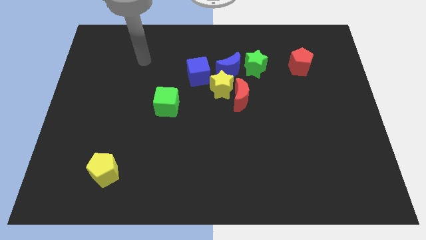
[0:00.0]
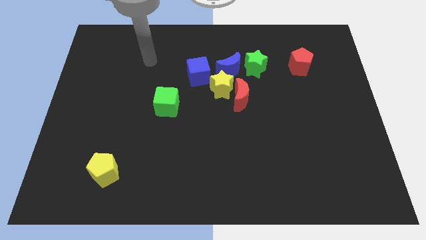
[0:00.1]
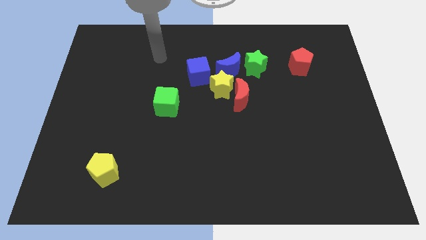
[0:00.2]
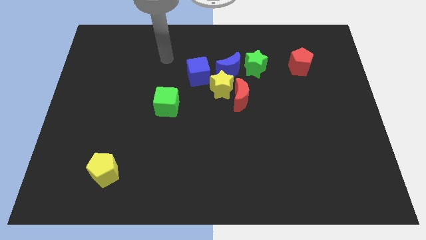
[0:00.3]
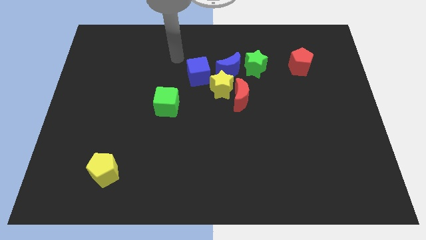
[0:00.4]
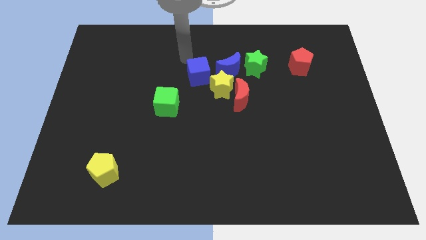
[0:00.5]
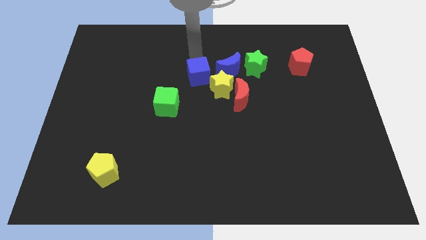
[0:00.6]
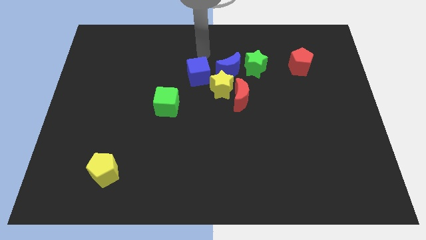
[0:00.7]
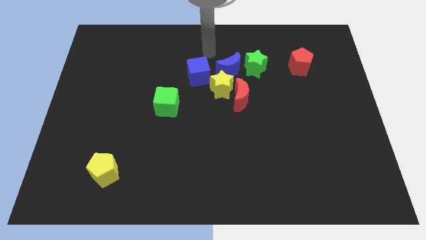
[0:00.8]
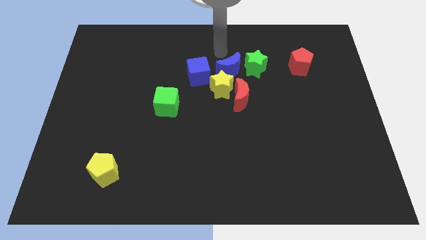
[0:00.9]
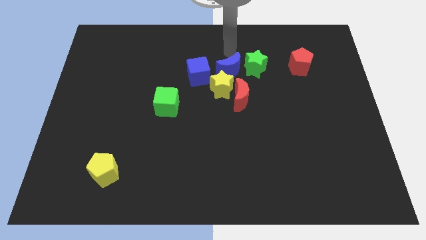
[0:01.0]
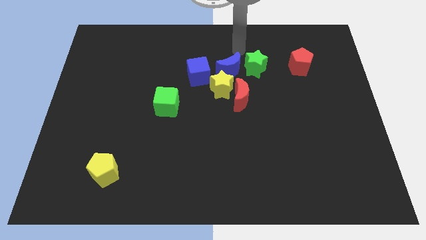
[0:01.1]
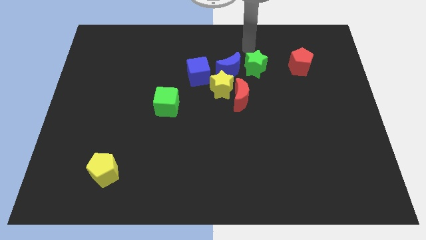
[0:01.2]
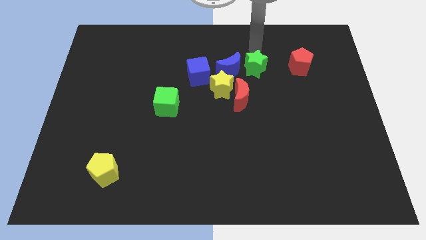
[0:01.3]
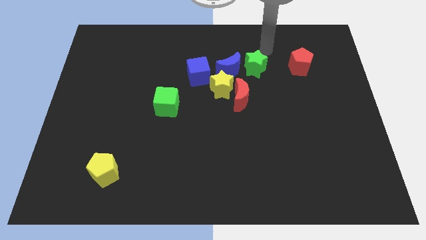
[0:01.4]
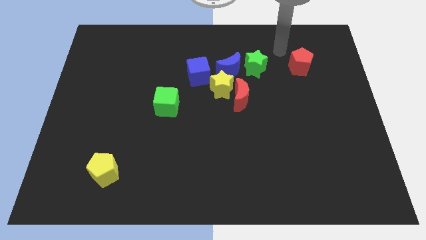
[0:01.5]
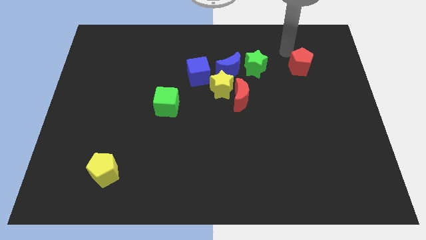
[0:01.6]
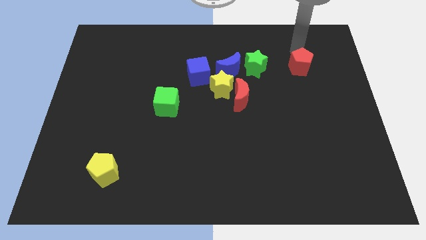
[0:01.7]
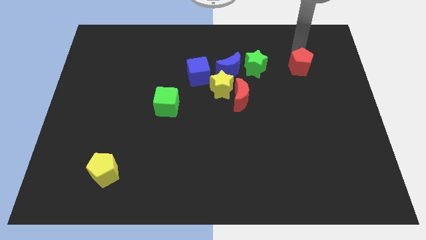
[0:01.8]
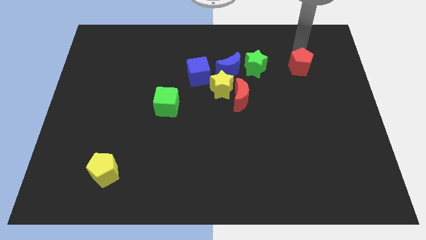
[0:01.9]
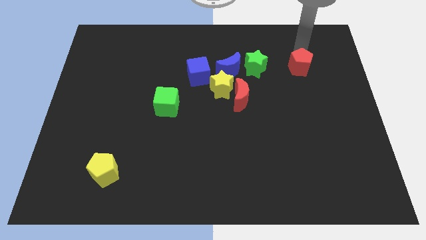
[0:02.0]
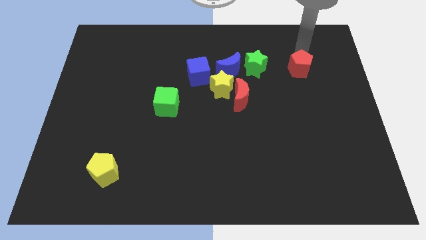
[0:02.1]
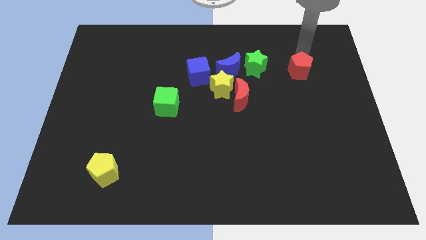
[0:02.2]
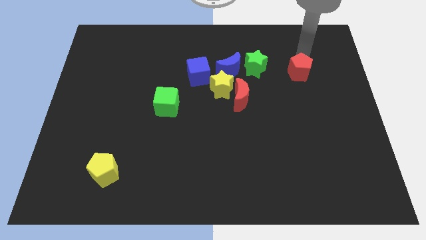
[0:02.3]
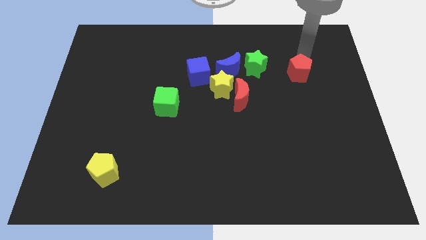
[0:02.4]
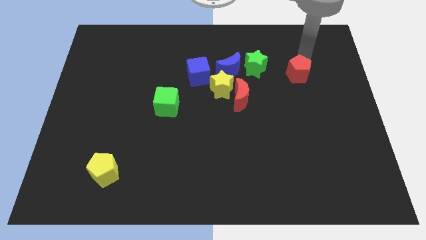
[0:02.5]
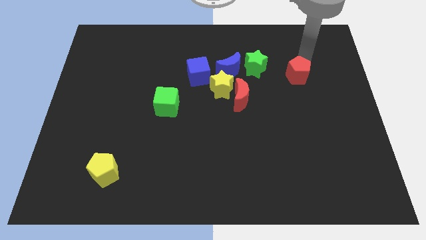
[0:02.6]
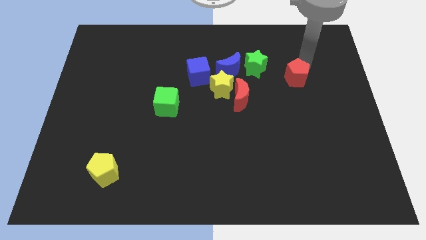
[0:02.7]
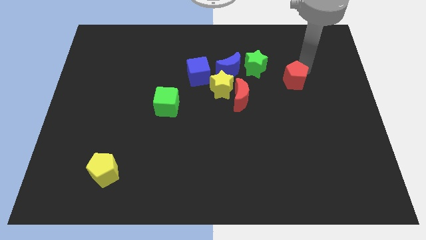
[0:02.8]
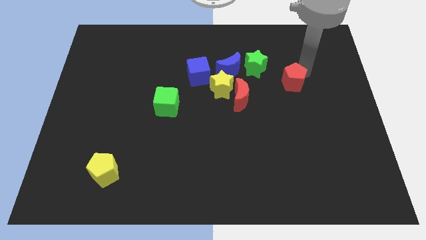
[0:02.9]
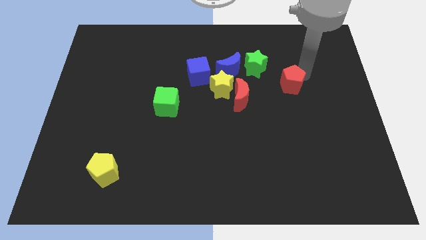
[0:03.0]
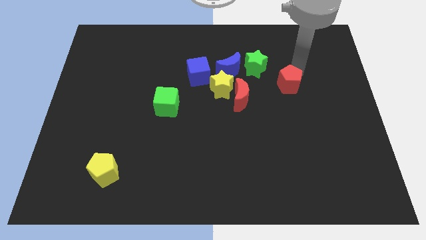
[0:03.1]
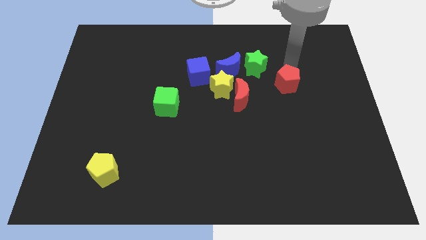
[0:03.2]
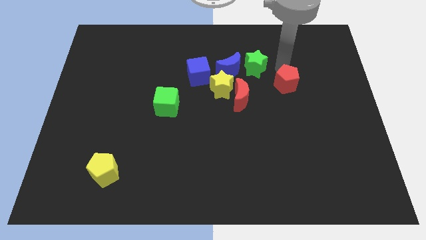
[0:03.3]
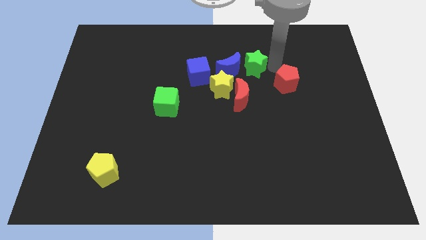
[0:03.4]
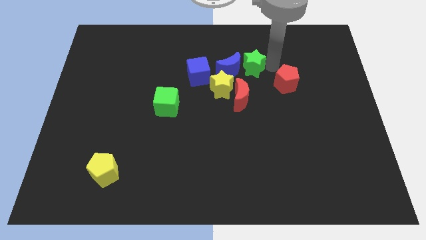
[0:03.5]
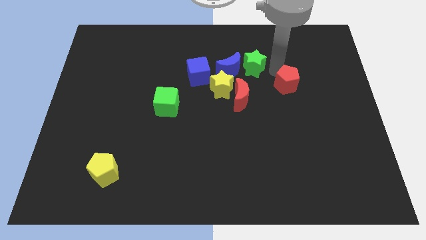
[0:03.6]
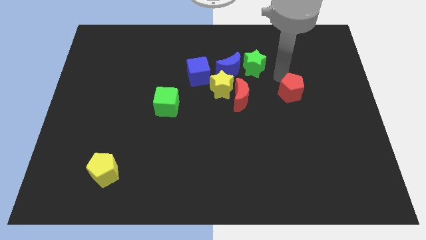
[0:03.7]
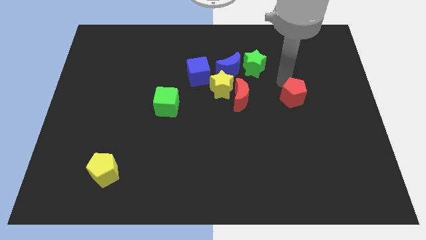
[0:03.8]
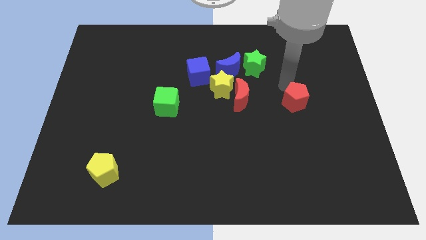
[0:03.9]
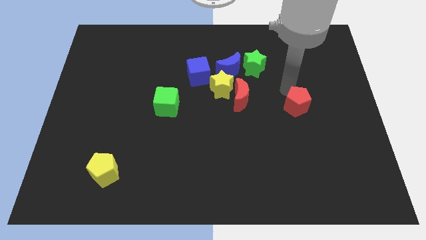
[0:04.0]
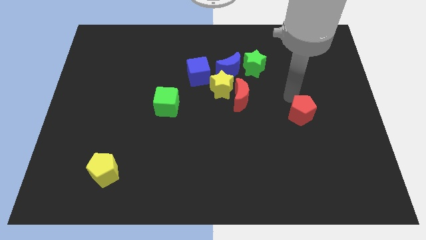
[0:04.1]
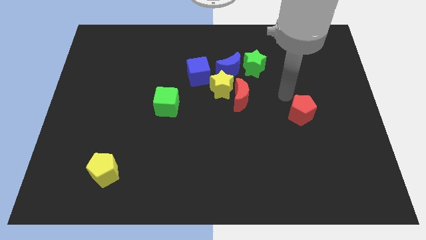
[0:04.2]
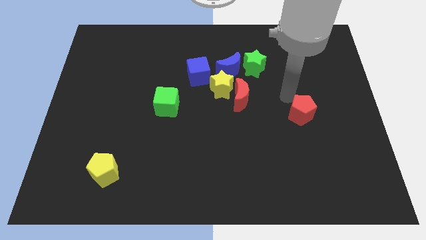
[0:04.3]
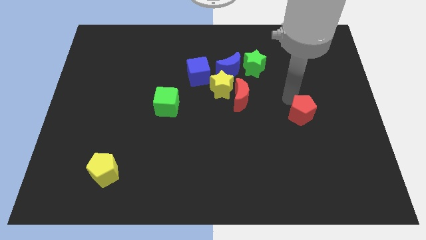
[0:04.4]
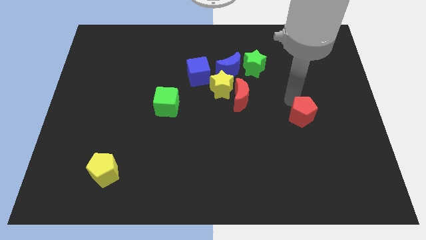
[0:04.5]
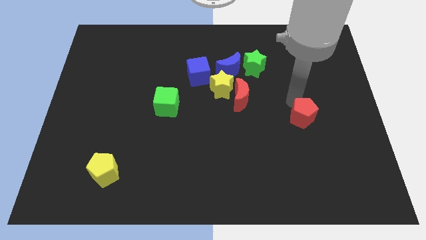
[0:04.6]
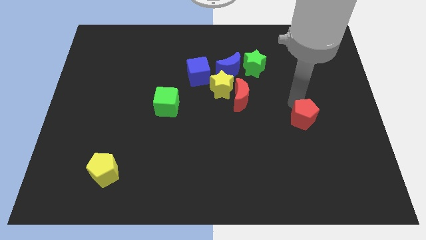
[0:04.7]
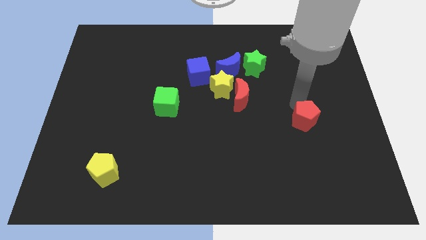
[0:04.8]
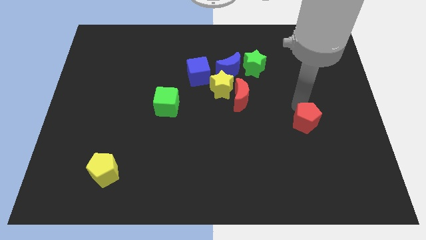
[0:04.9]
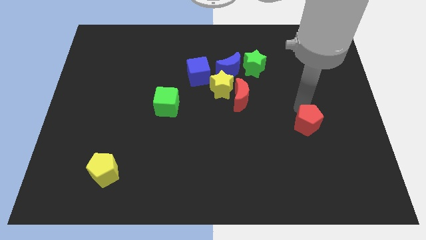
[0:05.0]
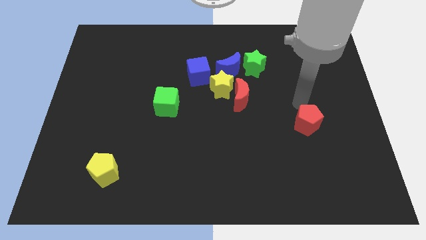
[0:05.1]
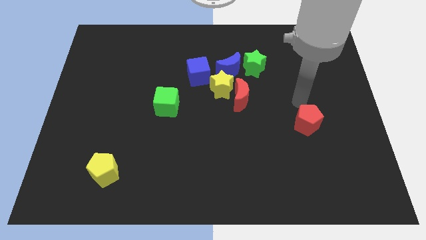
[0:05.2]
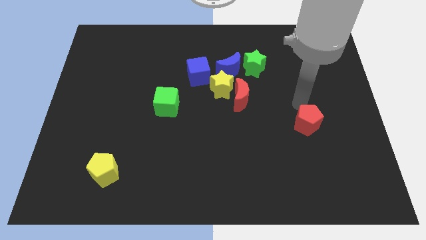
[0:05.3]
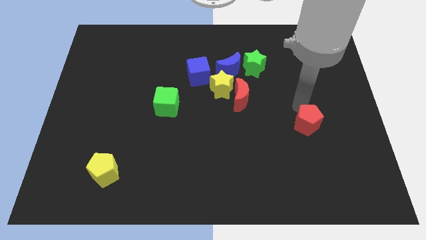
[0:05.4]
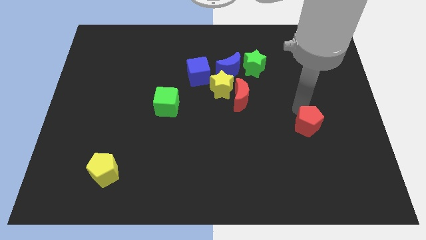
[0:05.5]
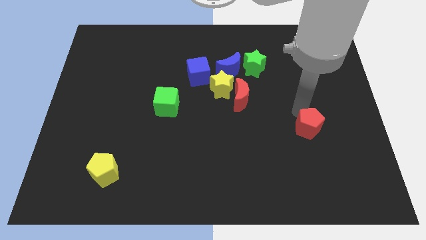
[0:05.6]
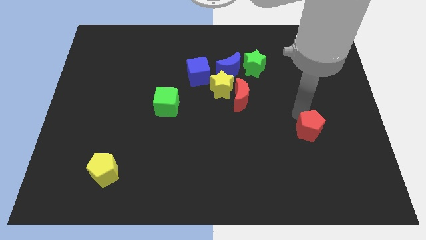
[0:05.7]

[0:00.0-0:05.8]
slide the red pentagon downwards

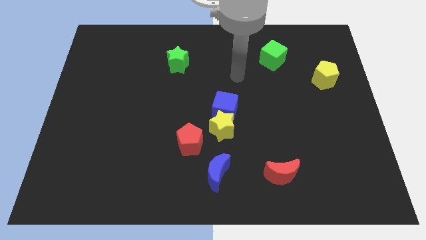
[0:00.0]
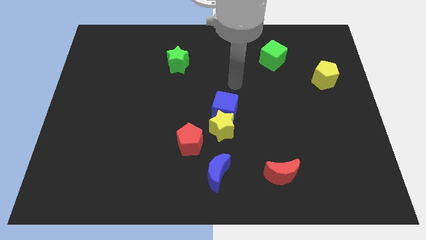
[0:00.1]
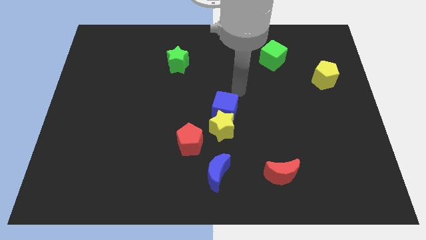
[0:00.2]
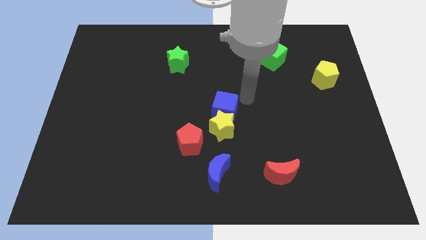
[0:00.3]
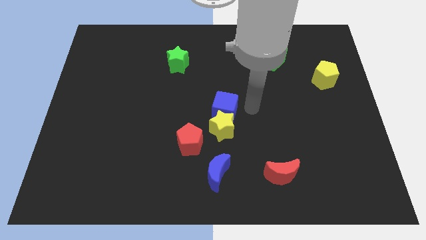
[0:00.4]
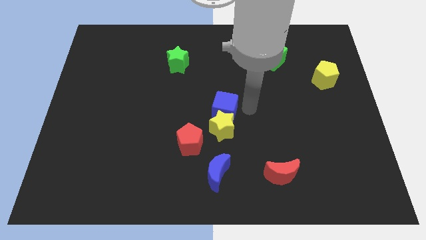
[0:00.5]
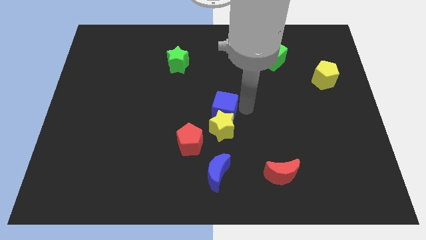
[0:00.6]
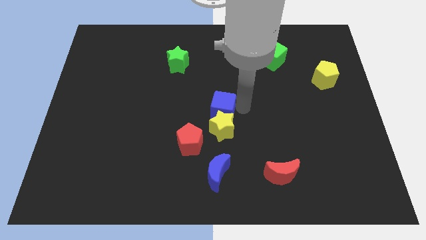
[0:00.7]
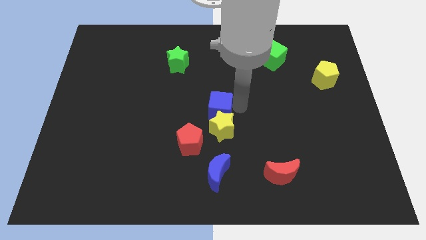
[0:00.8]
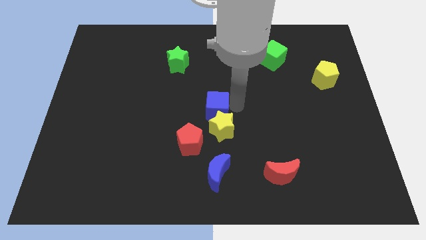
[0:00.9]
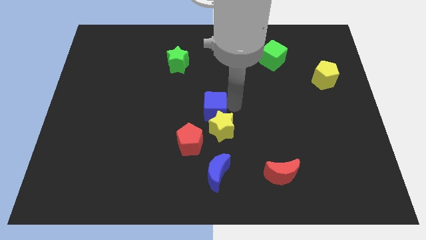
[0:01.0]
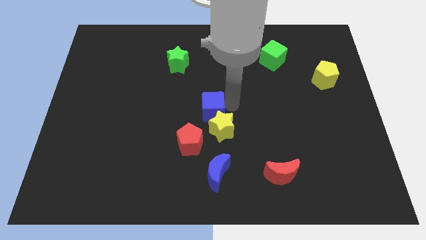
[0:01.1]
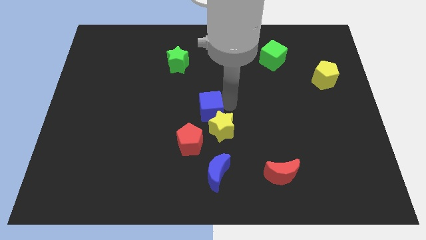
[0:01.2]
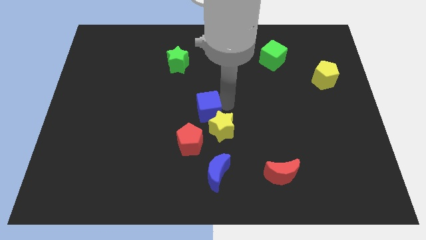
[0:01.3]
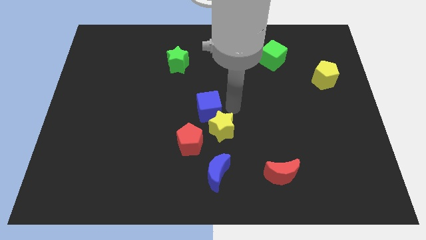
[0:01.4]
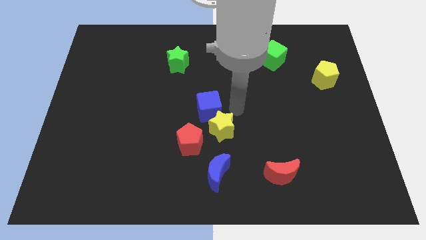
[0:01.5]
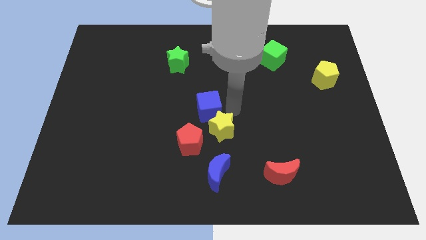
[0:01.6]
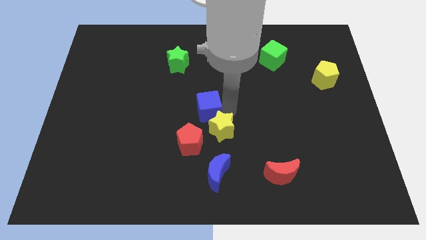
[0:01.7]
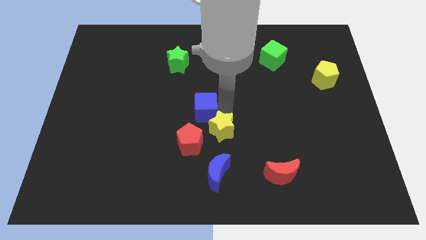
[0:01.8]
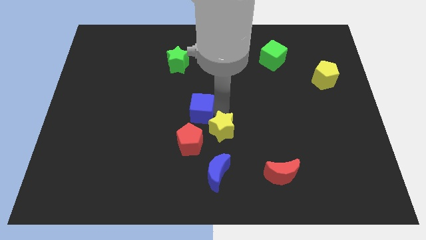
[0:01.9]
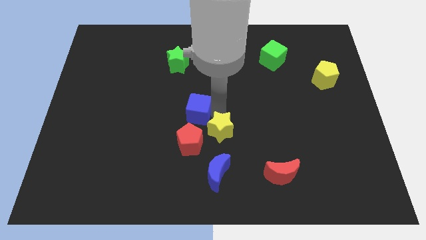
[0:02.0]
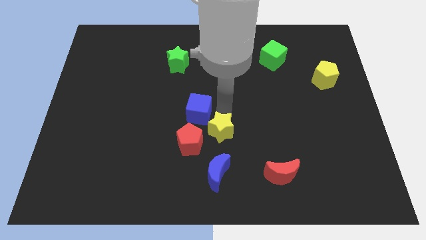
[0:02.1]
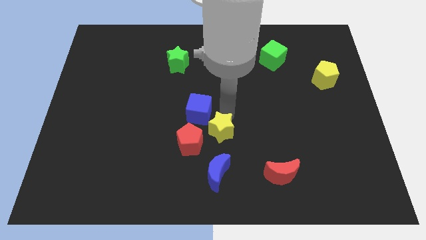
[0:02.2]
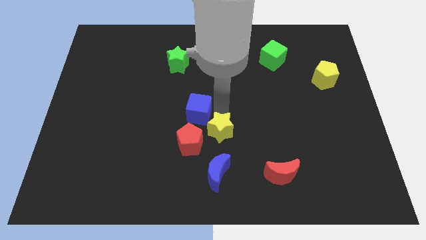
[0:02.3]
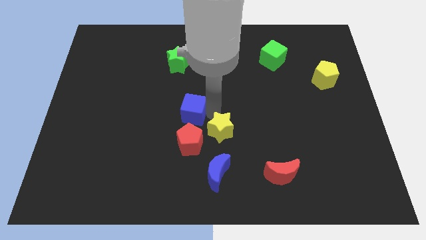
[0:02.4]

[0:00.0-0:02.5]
slide the blue cube a bit left
